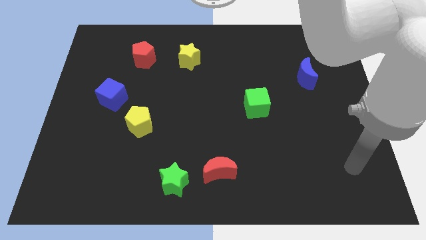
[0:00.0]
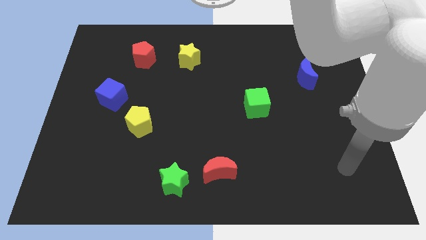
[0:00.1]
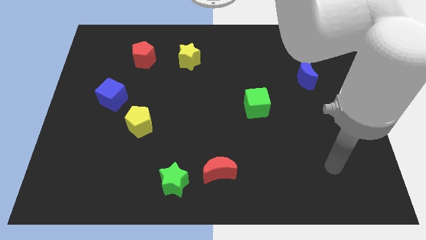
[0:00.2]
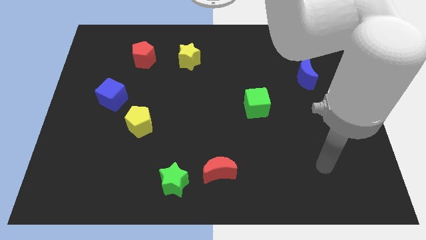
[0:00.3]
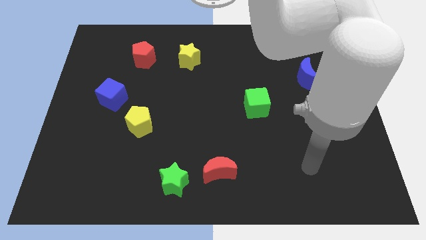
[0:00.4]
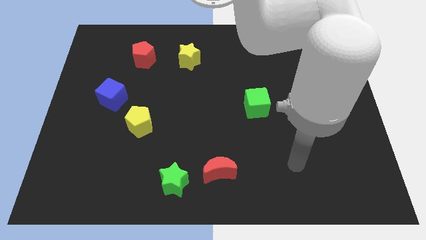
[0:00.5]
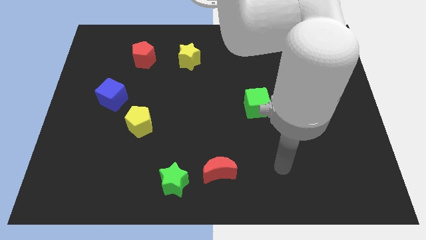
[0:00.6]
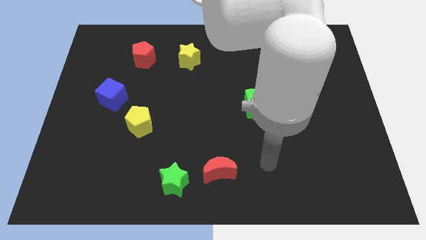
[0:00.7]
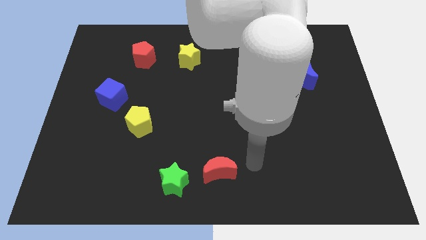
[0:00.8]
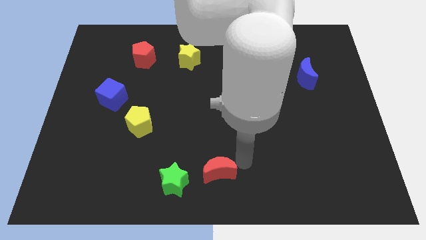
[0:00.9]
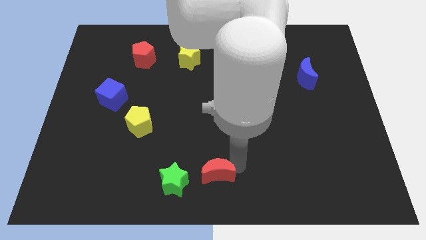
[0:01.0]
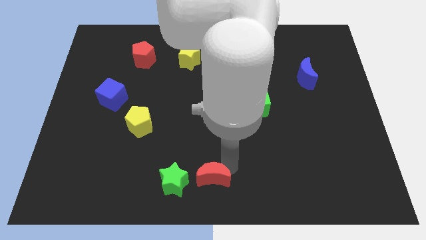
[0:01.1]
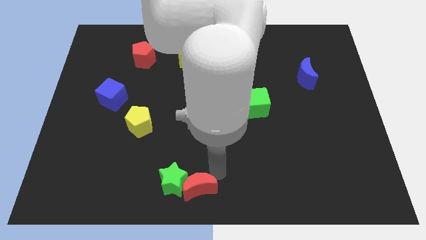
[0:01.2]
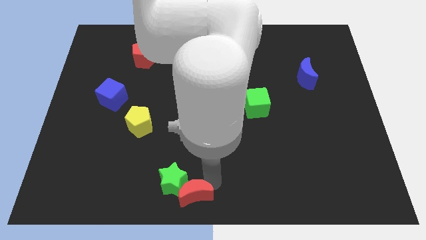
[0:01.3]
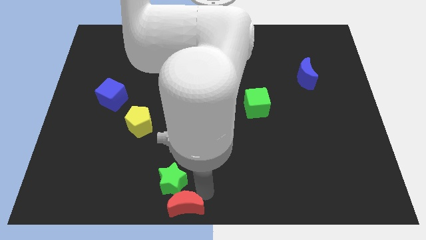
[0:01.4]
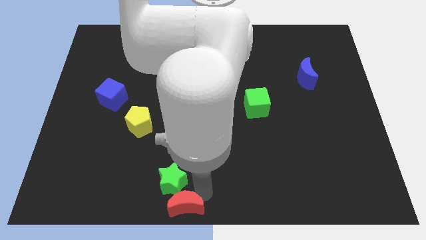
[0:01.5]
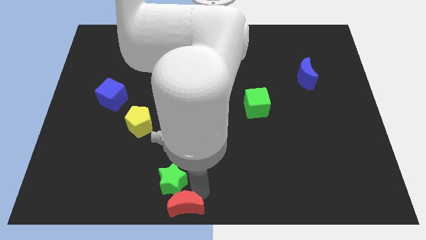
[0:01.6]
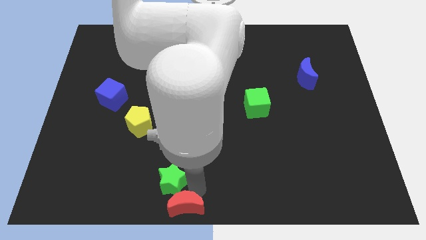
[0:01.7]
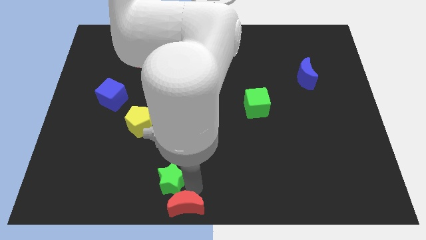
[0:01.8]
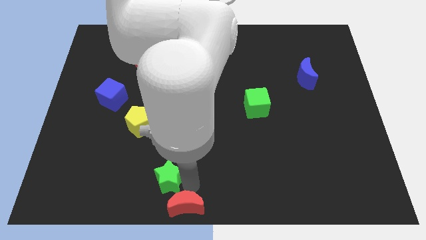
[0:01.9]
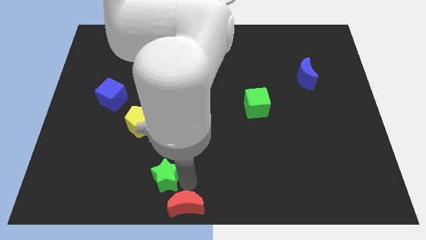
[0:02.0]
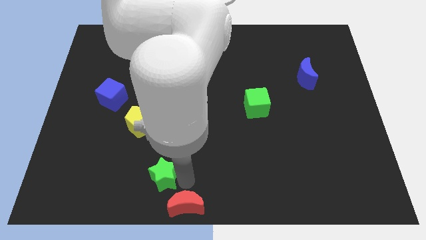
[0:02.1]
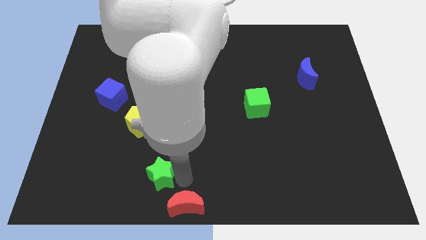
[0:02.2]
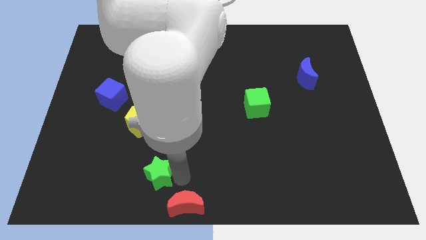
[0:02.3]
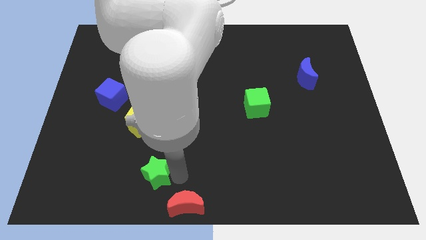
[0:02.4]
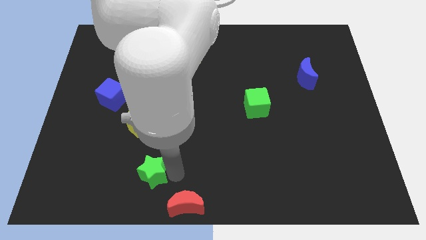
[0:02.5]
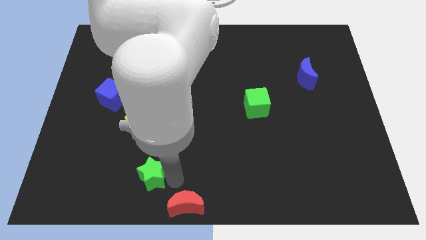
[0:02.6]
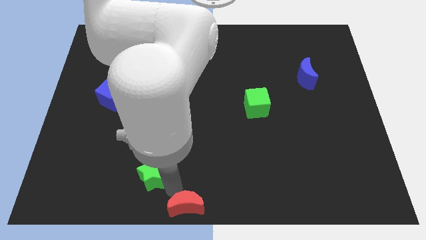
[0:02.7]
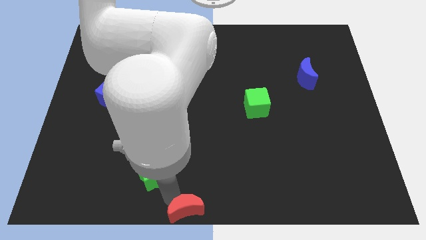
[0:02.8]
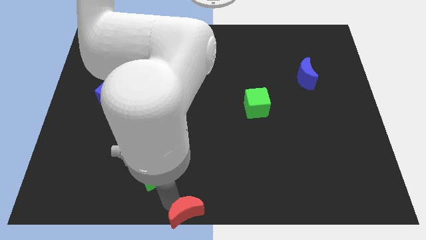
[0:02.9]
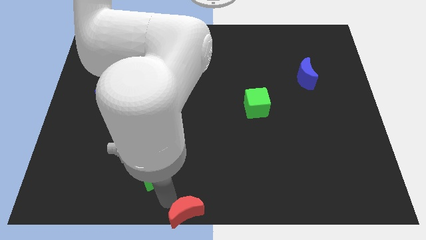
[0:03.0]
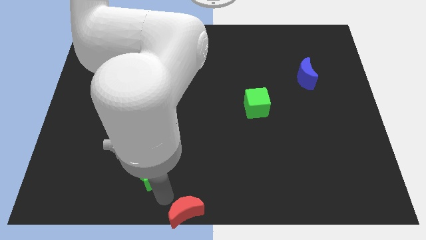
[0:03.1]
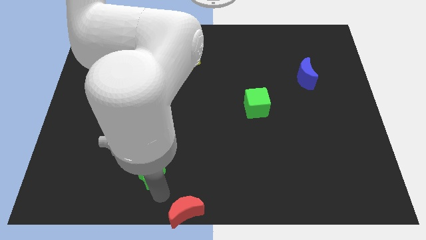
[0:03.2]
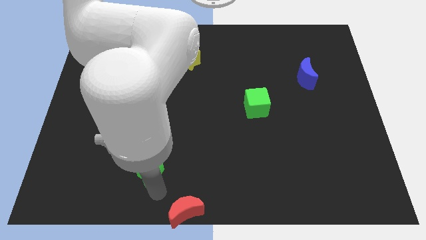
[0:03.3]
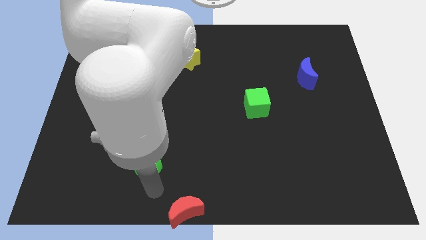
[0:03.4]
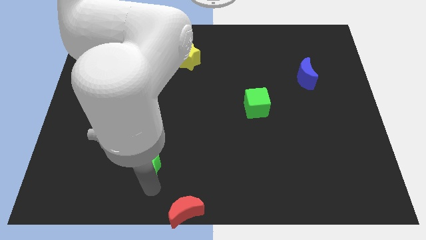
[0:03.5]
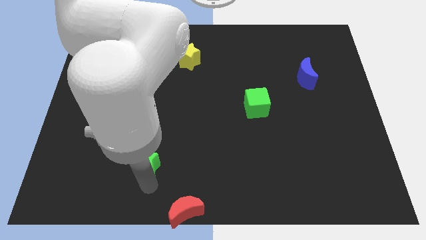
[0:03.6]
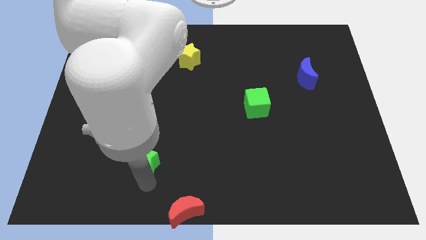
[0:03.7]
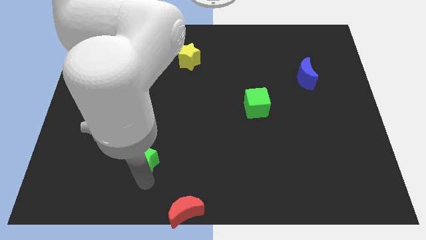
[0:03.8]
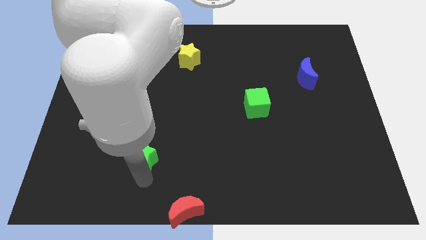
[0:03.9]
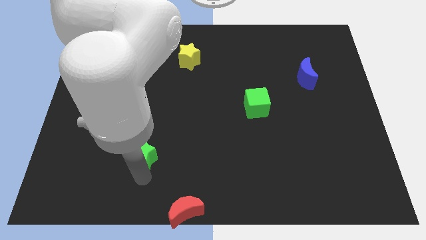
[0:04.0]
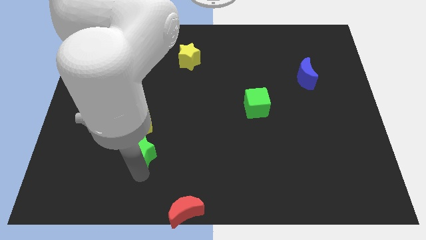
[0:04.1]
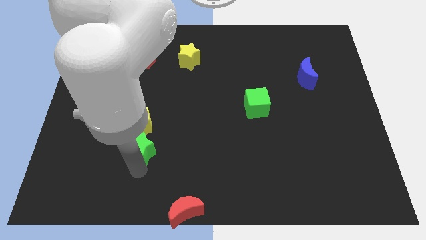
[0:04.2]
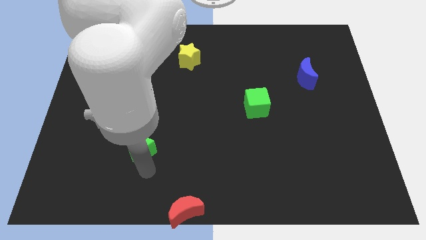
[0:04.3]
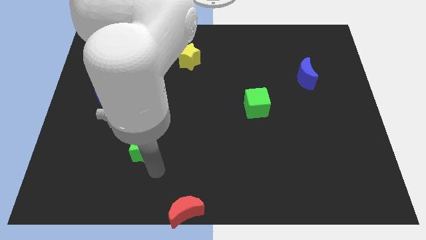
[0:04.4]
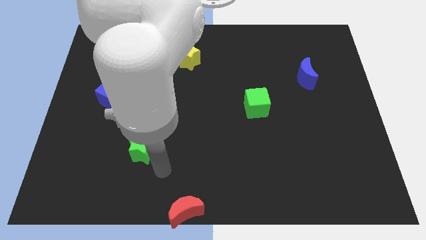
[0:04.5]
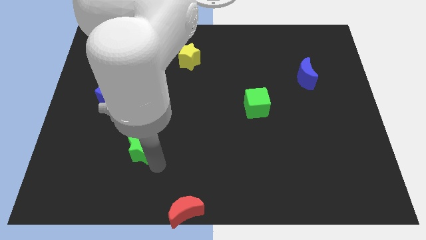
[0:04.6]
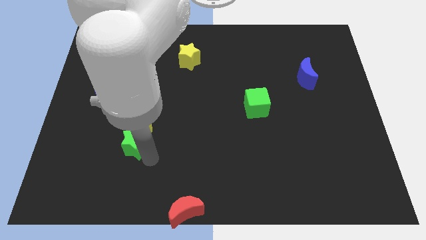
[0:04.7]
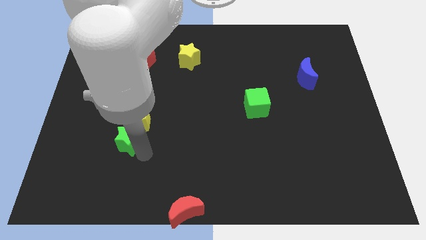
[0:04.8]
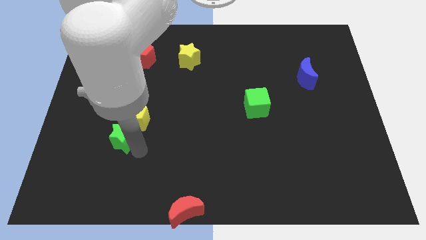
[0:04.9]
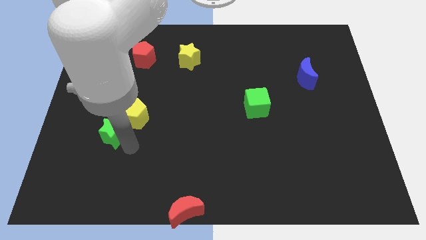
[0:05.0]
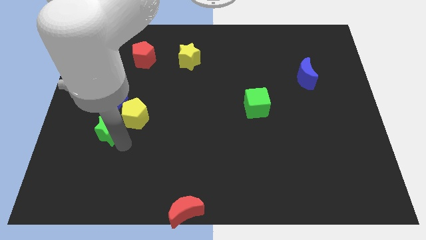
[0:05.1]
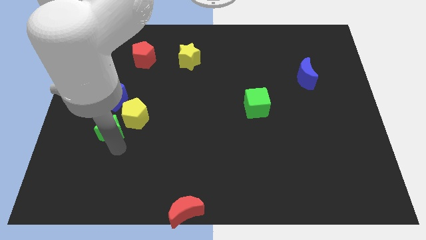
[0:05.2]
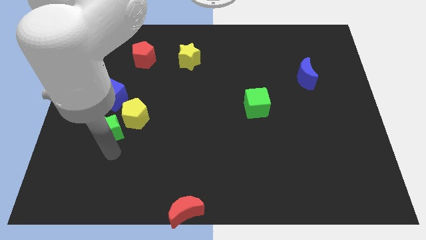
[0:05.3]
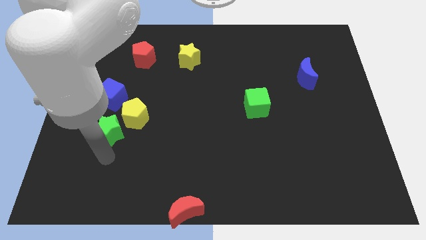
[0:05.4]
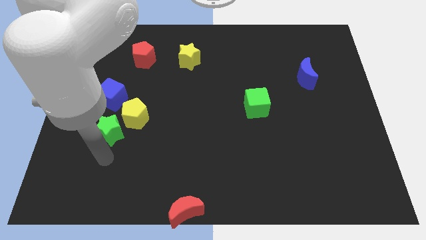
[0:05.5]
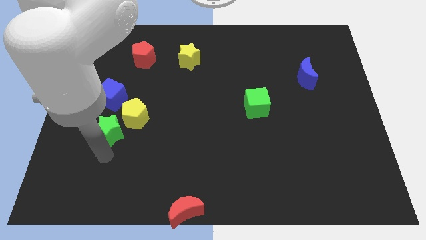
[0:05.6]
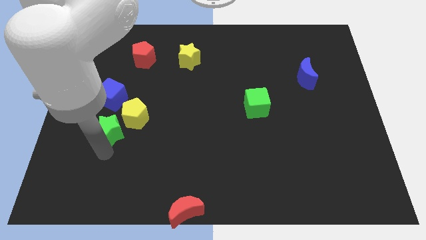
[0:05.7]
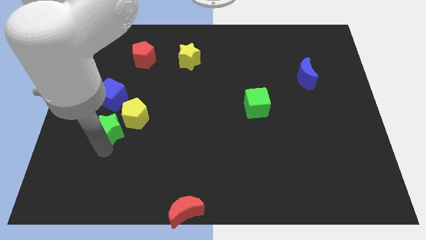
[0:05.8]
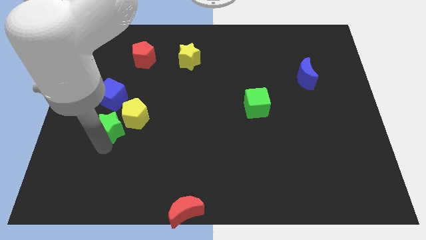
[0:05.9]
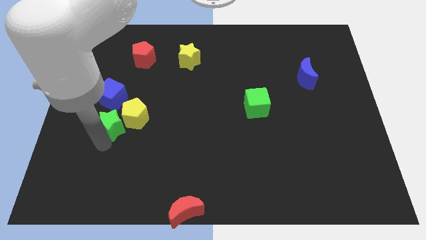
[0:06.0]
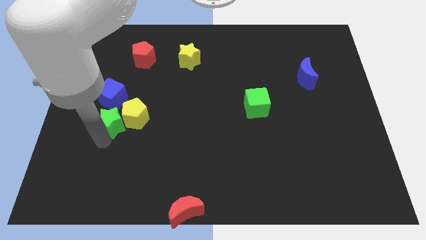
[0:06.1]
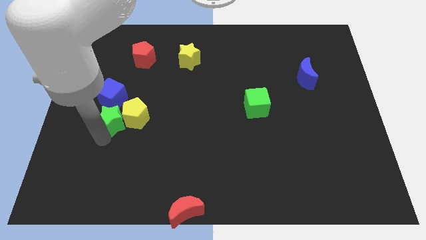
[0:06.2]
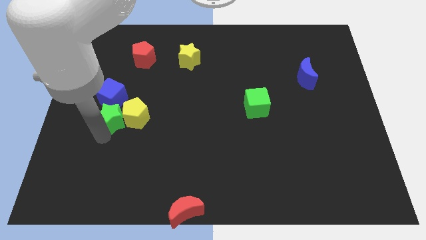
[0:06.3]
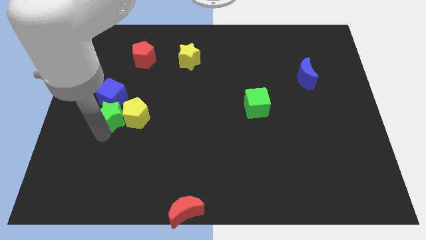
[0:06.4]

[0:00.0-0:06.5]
move the green star to the blue cube
